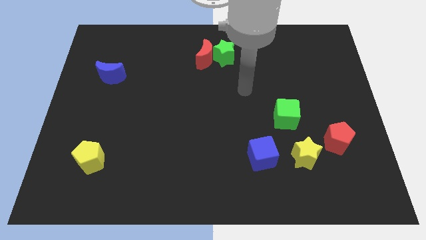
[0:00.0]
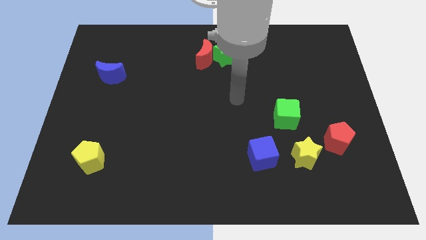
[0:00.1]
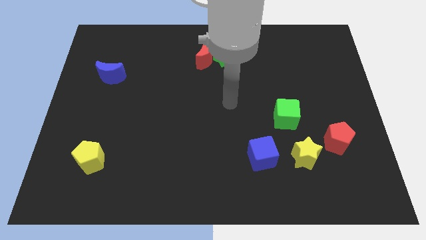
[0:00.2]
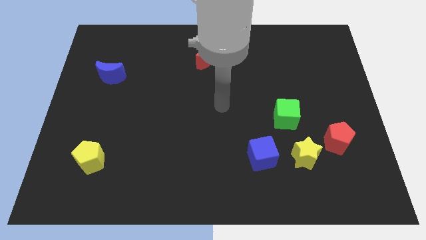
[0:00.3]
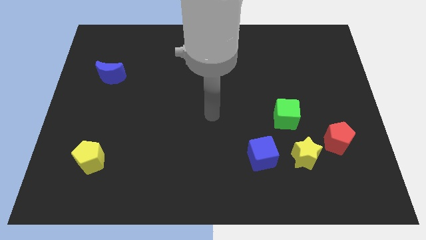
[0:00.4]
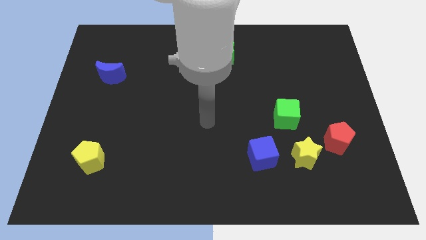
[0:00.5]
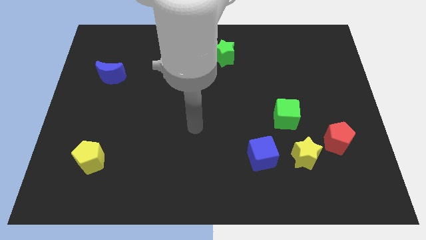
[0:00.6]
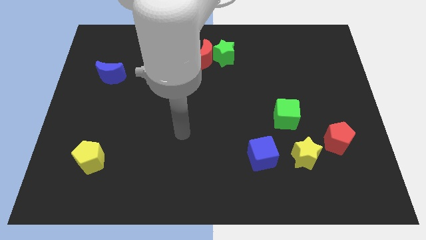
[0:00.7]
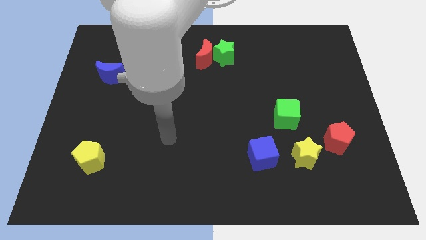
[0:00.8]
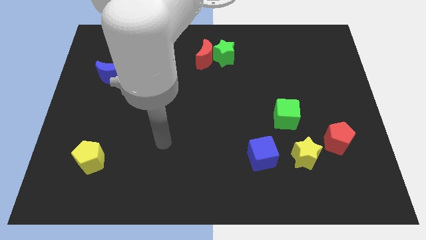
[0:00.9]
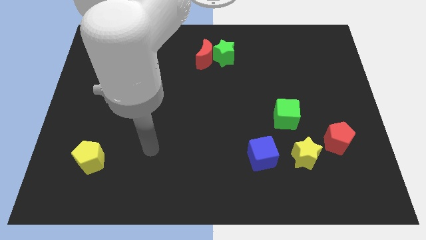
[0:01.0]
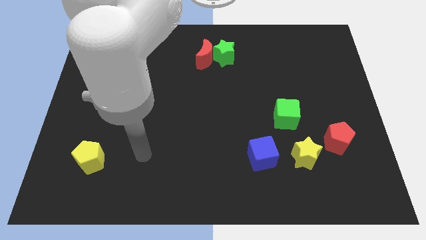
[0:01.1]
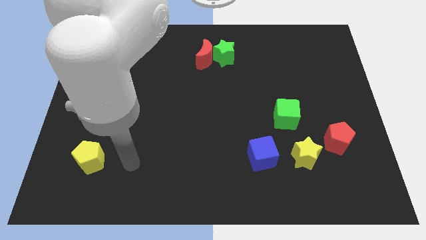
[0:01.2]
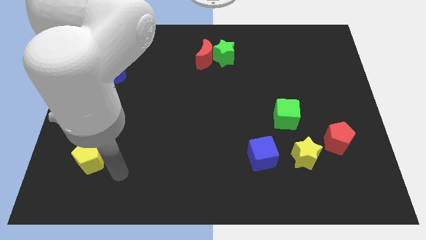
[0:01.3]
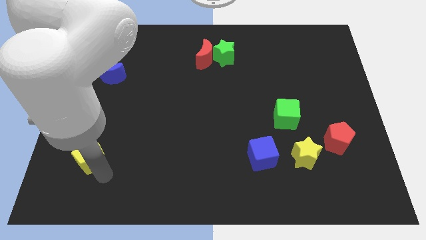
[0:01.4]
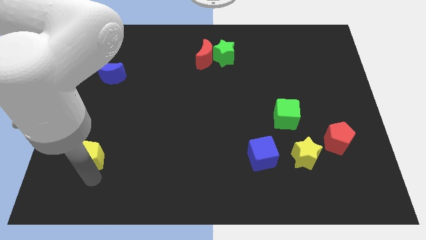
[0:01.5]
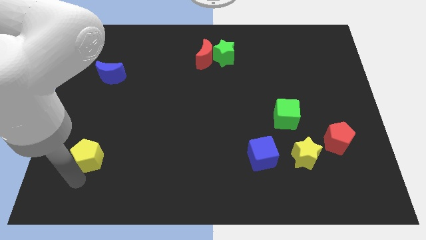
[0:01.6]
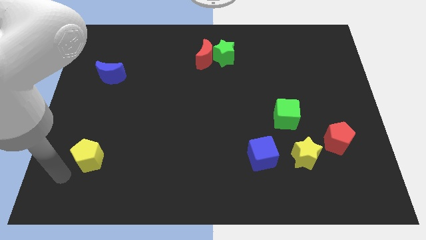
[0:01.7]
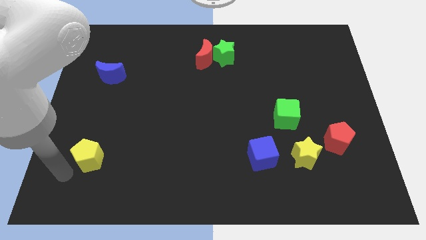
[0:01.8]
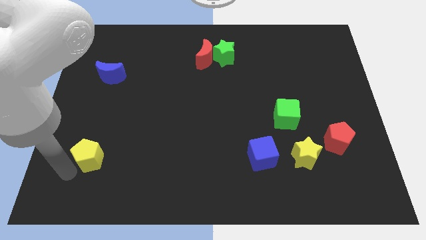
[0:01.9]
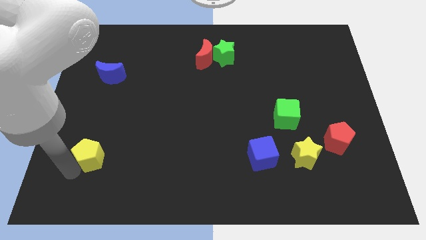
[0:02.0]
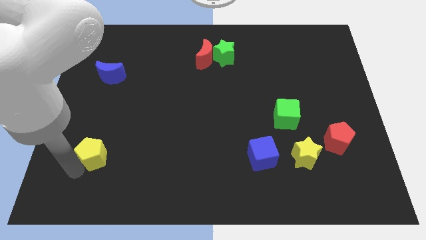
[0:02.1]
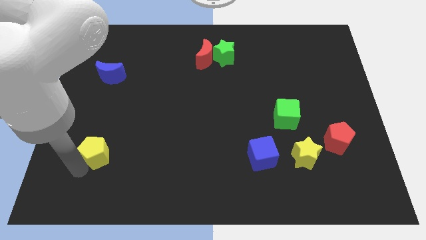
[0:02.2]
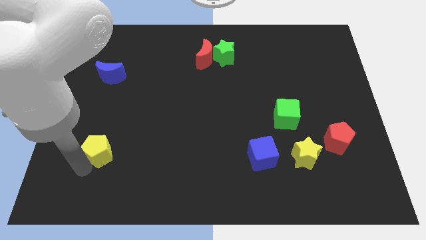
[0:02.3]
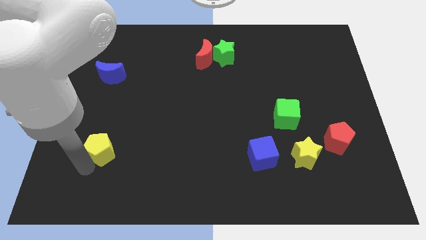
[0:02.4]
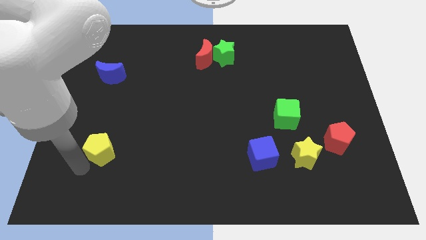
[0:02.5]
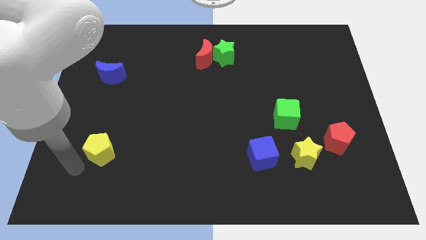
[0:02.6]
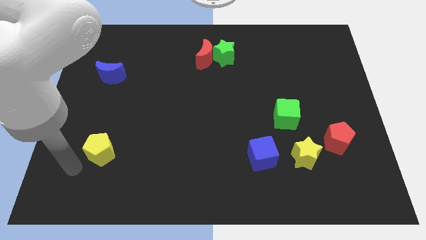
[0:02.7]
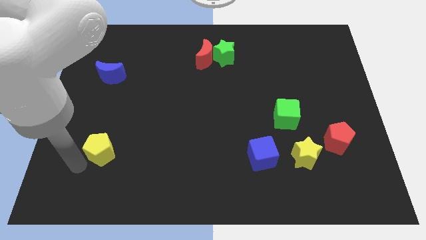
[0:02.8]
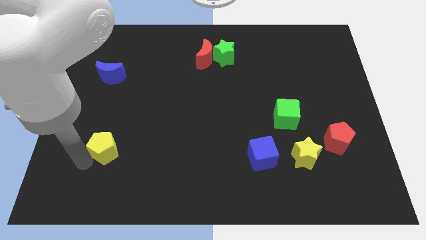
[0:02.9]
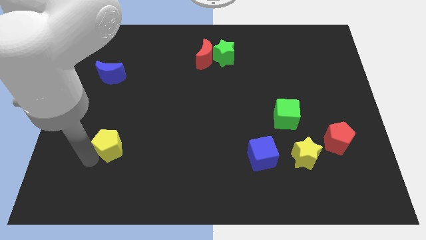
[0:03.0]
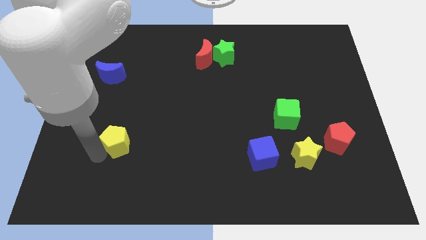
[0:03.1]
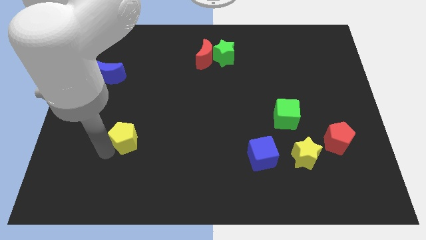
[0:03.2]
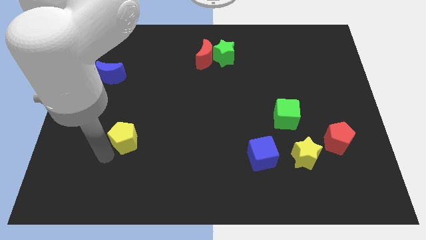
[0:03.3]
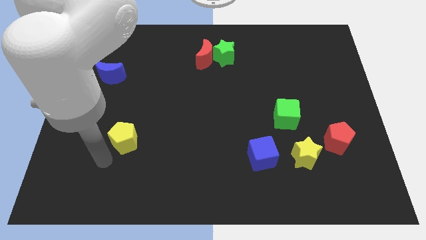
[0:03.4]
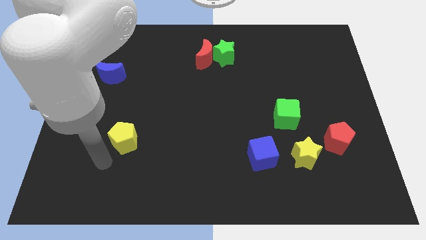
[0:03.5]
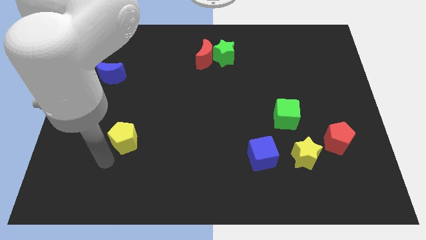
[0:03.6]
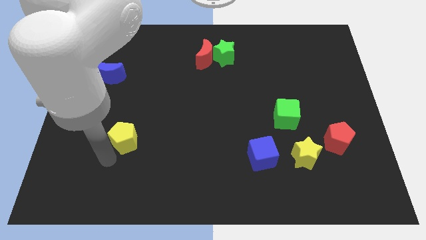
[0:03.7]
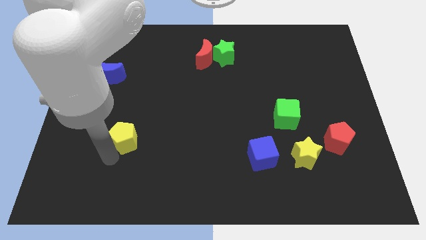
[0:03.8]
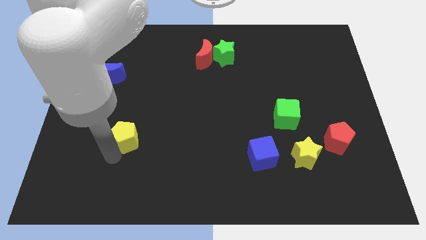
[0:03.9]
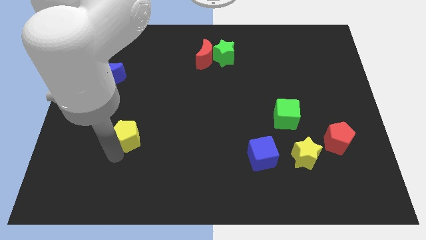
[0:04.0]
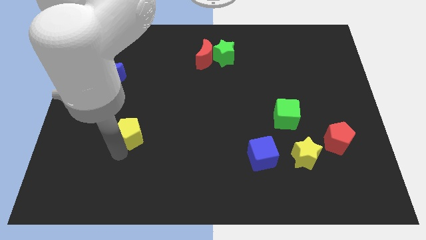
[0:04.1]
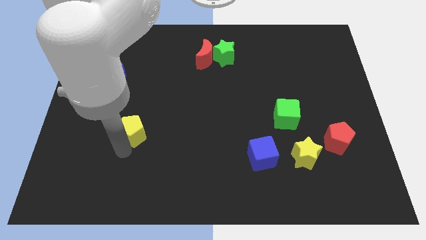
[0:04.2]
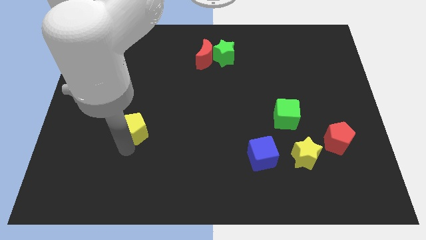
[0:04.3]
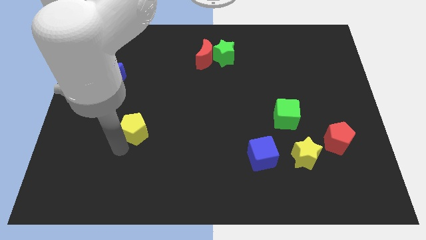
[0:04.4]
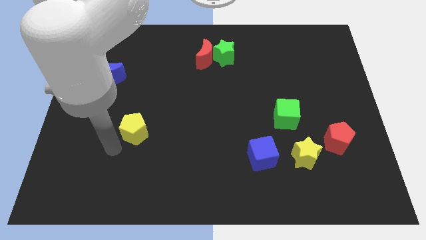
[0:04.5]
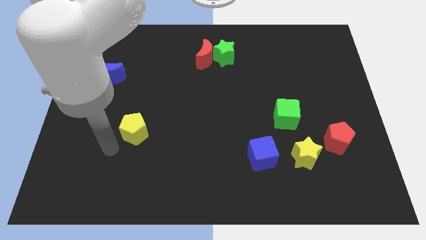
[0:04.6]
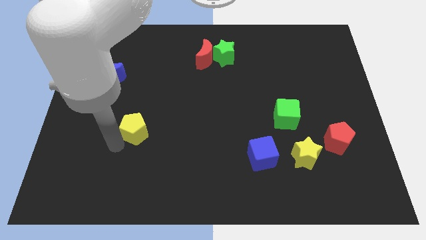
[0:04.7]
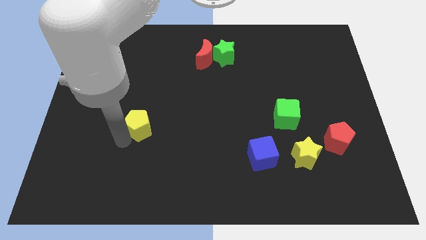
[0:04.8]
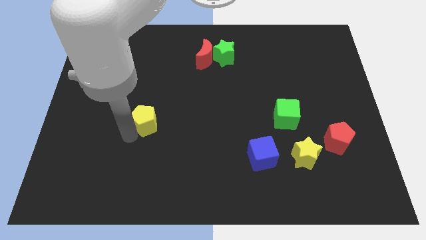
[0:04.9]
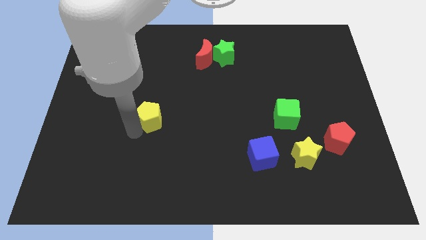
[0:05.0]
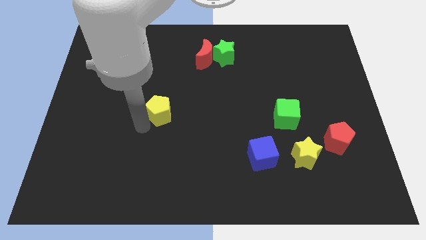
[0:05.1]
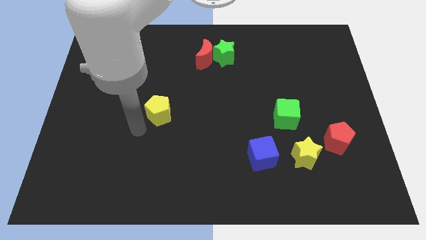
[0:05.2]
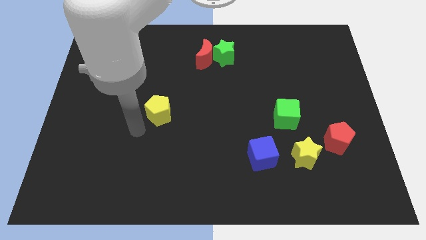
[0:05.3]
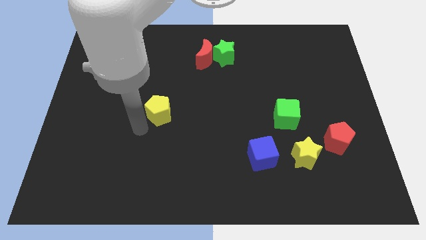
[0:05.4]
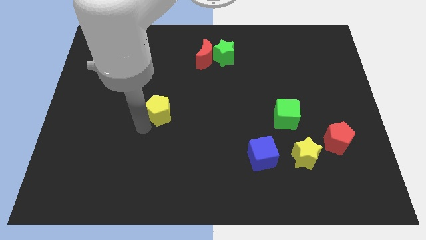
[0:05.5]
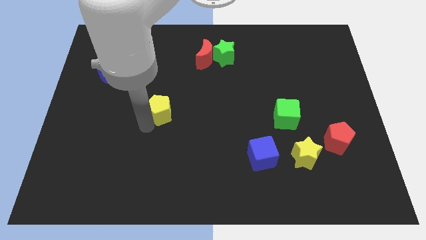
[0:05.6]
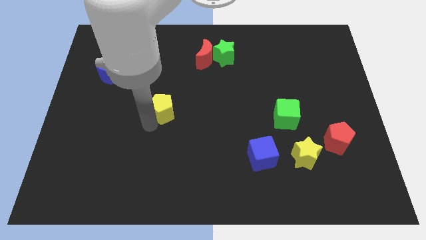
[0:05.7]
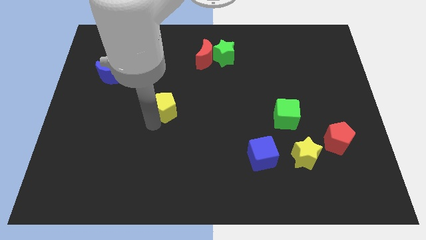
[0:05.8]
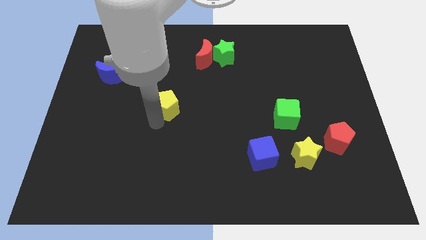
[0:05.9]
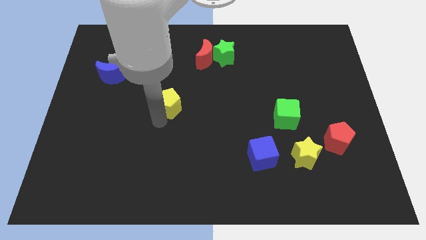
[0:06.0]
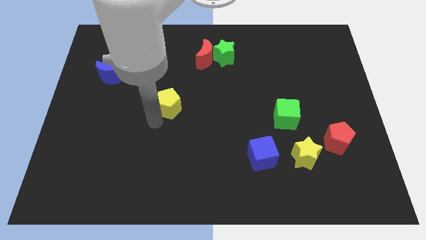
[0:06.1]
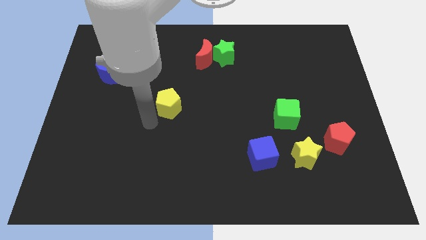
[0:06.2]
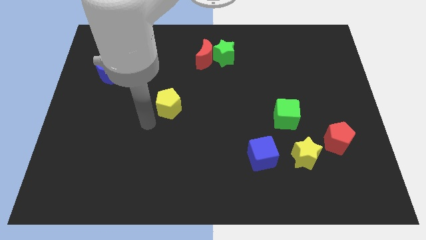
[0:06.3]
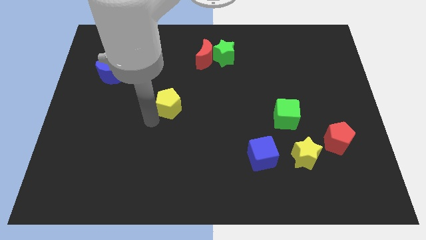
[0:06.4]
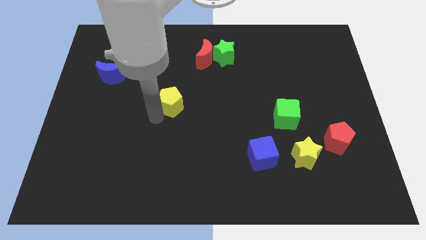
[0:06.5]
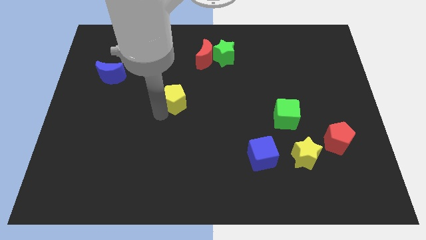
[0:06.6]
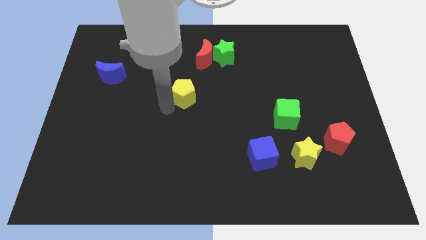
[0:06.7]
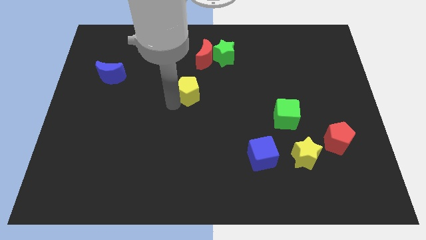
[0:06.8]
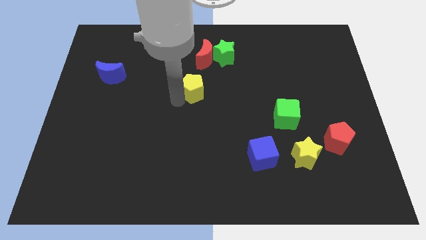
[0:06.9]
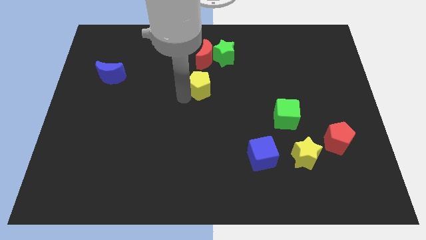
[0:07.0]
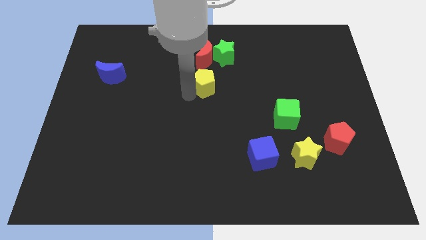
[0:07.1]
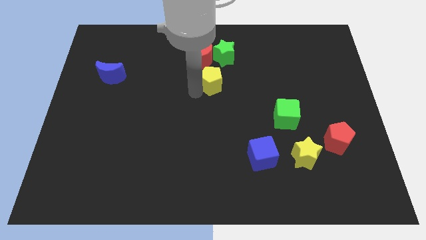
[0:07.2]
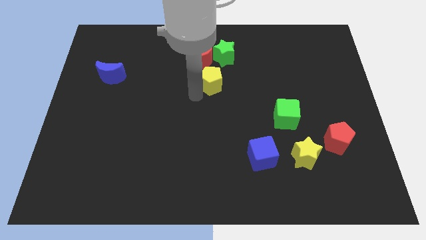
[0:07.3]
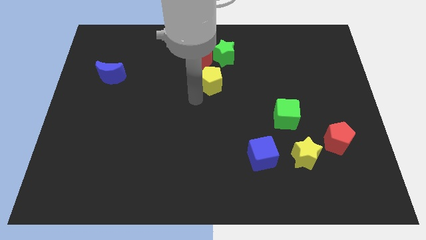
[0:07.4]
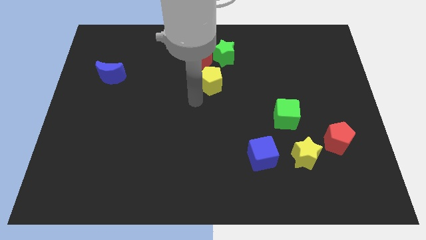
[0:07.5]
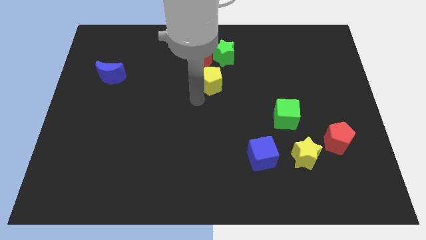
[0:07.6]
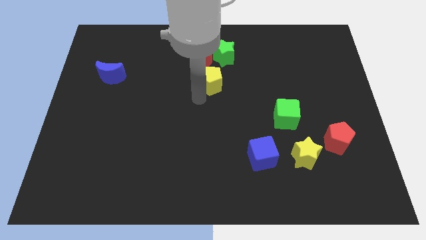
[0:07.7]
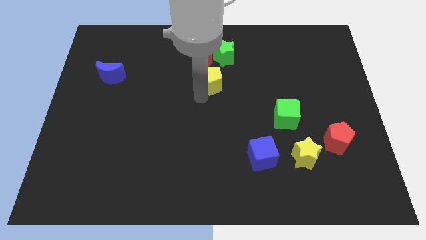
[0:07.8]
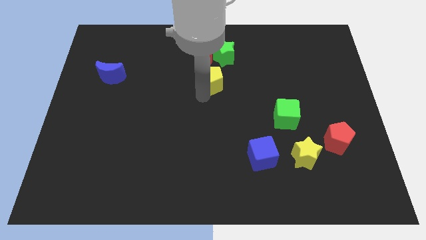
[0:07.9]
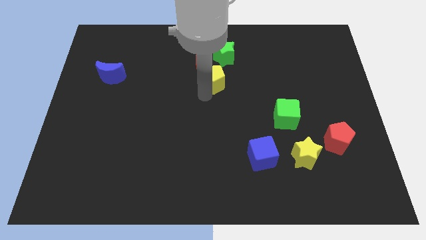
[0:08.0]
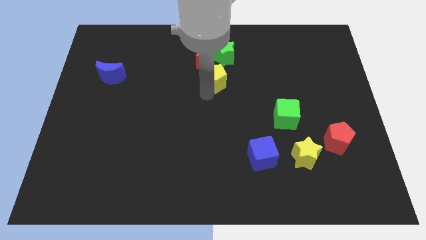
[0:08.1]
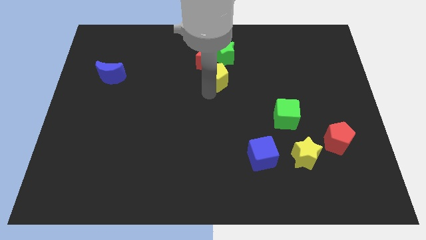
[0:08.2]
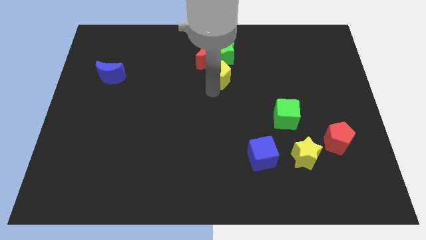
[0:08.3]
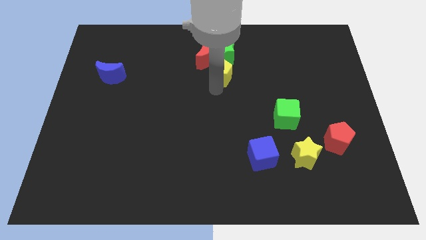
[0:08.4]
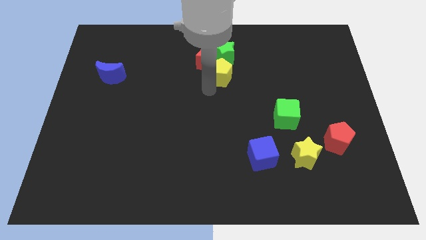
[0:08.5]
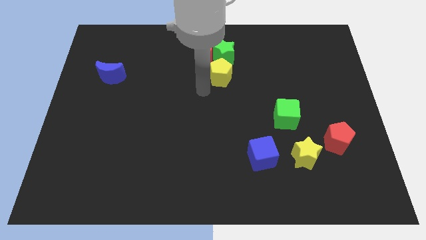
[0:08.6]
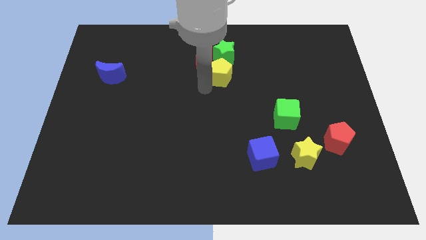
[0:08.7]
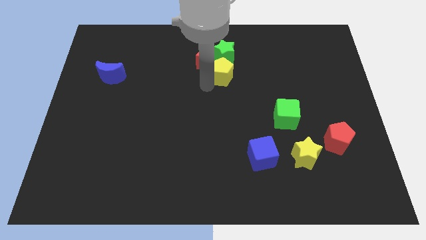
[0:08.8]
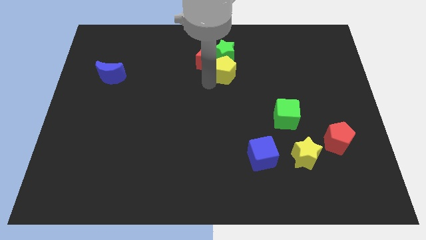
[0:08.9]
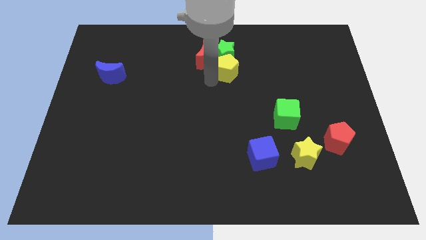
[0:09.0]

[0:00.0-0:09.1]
push the yellow pentagon right of the red moon
